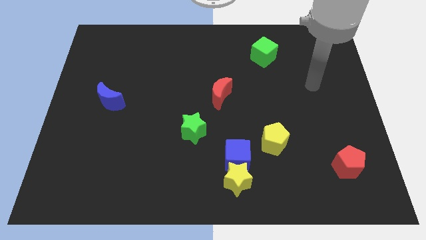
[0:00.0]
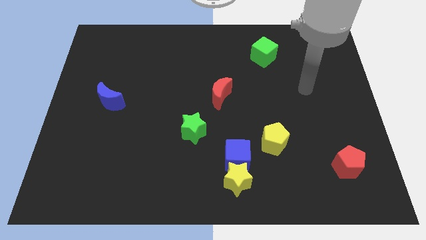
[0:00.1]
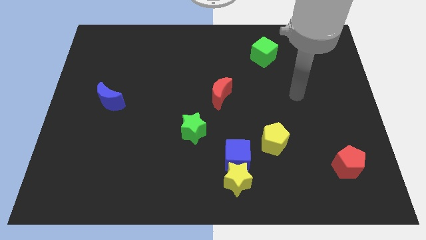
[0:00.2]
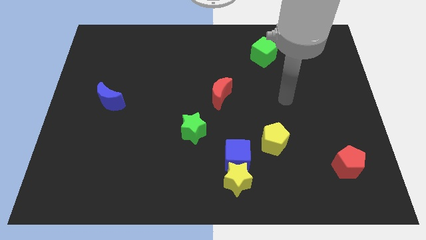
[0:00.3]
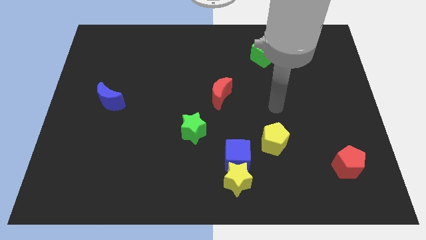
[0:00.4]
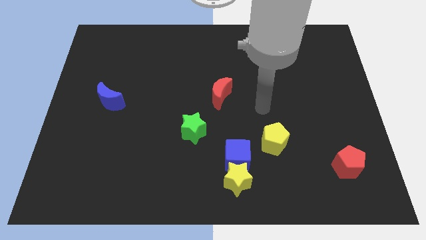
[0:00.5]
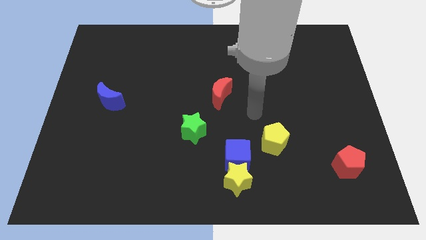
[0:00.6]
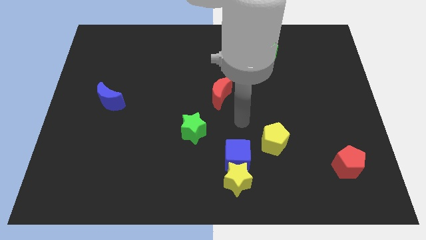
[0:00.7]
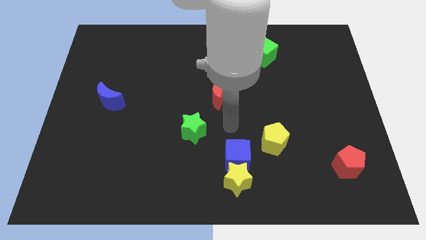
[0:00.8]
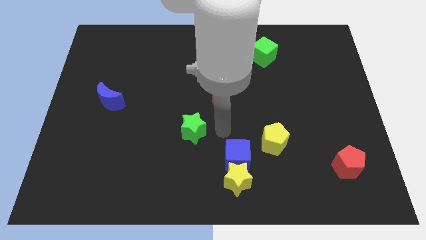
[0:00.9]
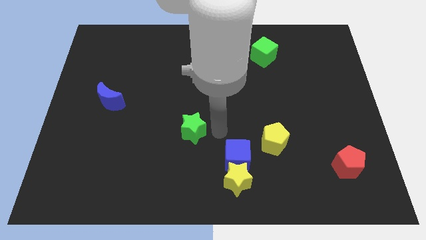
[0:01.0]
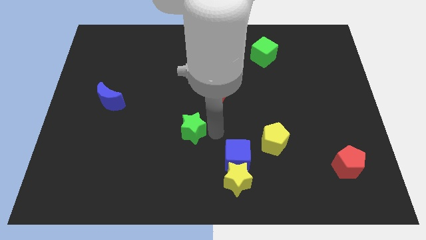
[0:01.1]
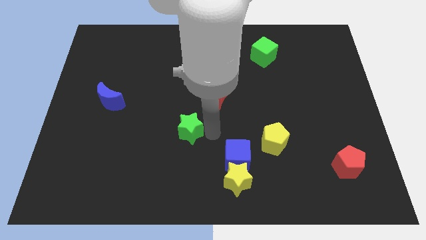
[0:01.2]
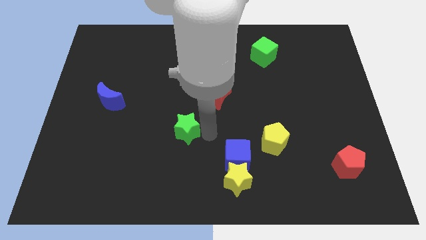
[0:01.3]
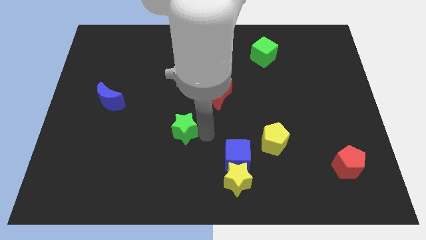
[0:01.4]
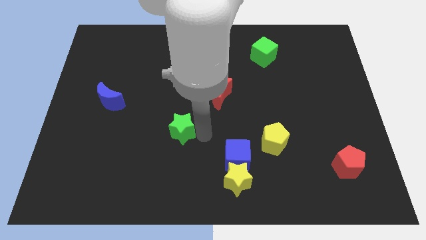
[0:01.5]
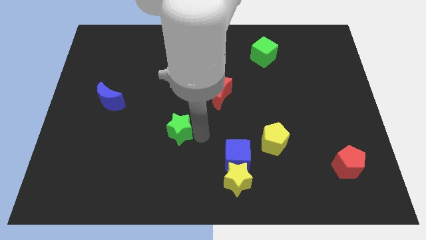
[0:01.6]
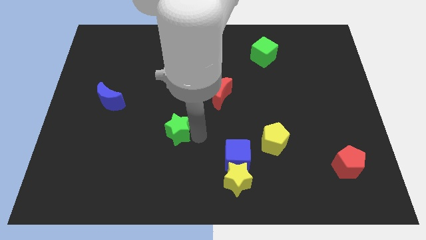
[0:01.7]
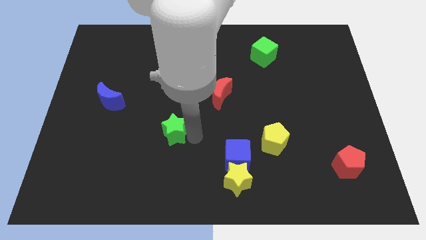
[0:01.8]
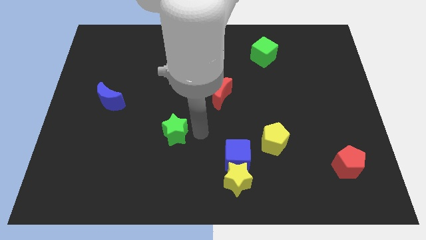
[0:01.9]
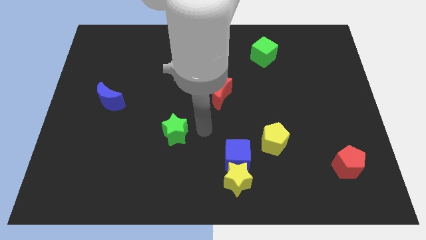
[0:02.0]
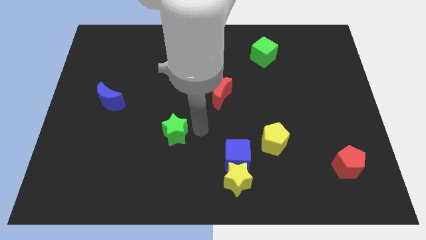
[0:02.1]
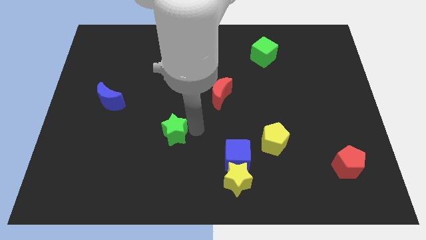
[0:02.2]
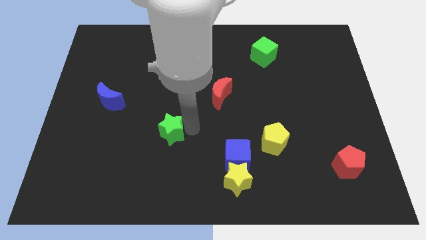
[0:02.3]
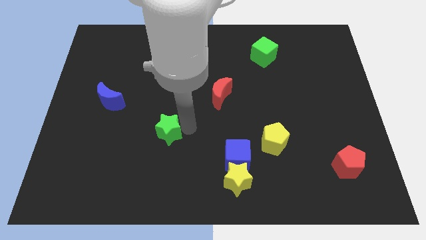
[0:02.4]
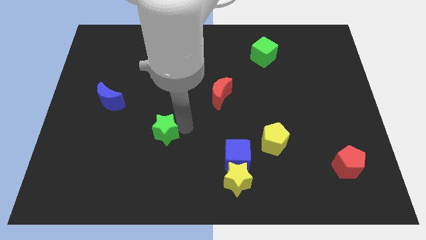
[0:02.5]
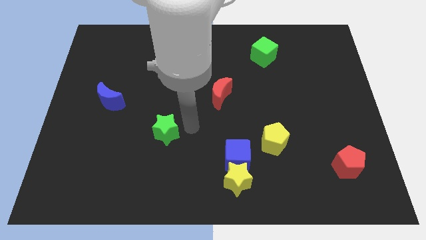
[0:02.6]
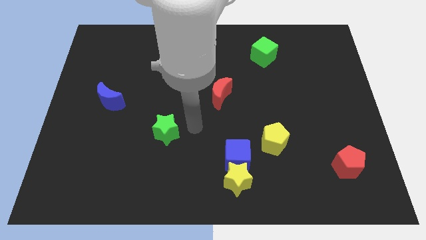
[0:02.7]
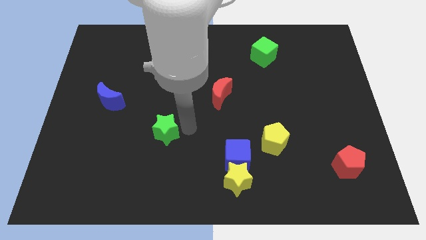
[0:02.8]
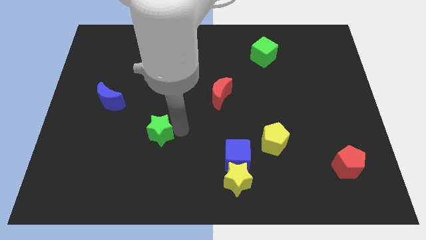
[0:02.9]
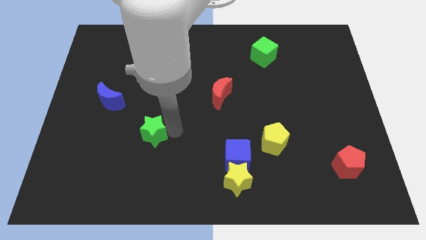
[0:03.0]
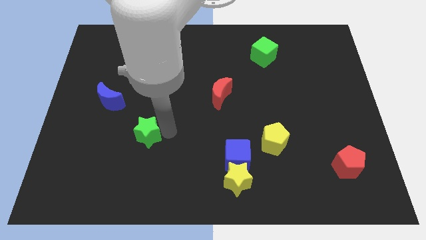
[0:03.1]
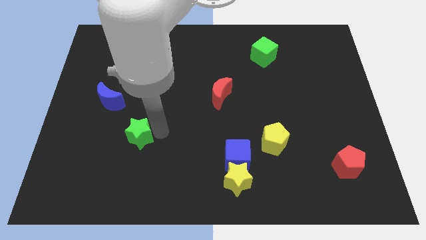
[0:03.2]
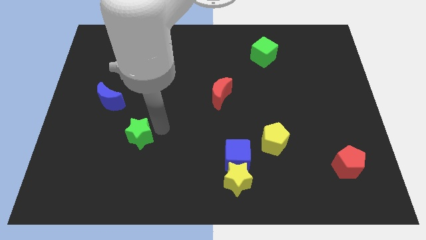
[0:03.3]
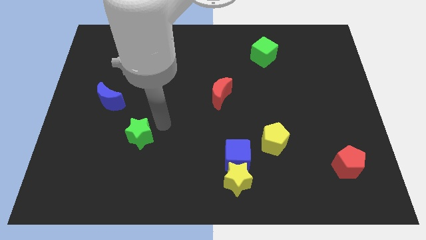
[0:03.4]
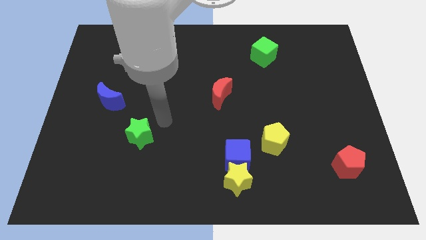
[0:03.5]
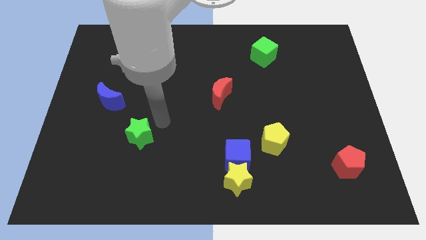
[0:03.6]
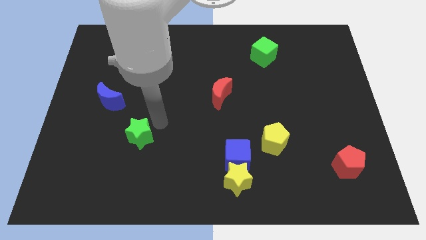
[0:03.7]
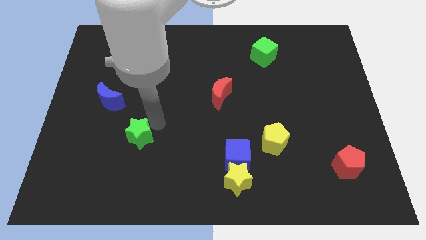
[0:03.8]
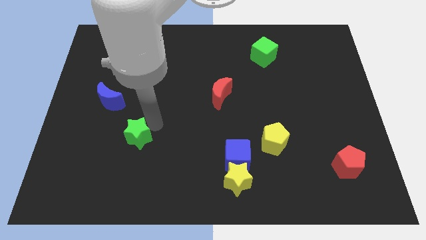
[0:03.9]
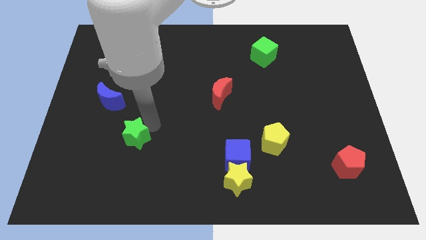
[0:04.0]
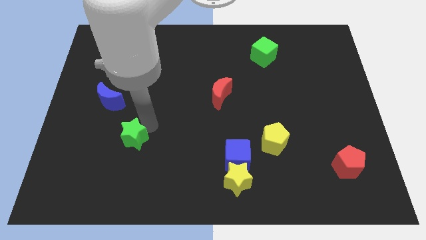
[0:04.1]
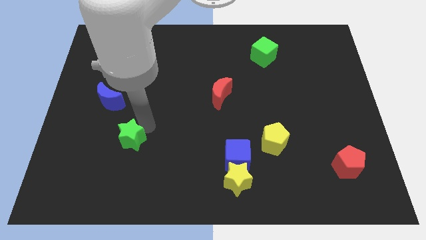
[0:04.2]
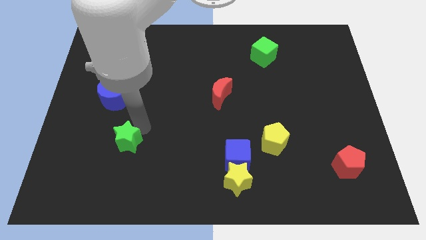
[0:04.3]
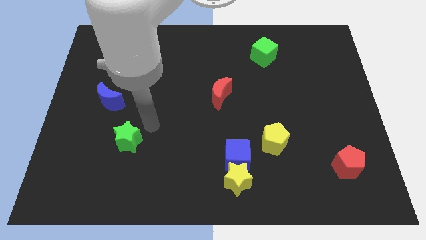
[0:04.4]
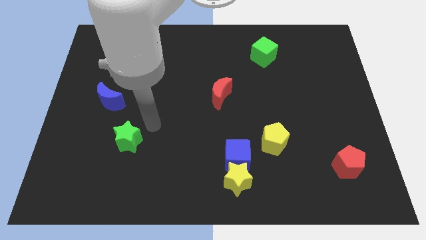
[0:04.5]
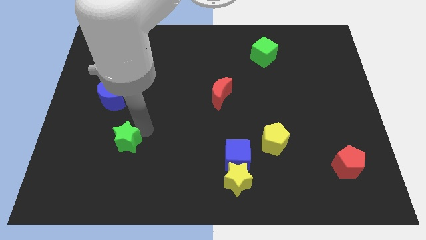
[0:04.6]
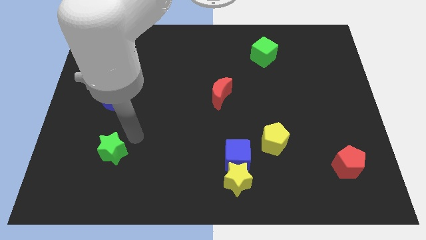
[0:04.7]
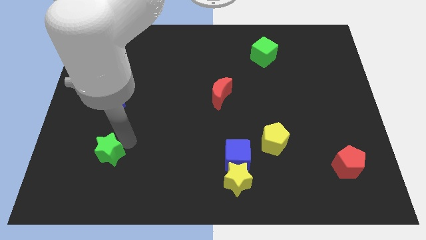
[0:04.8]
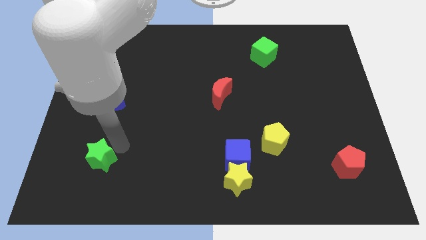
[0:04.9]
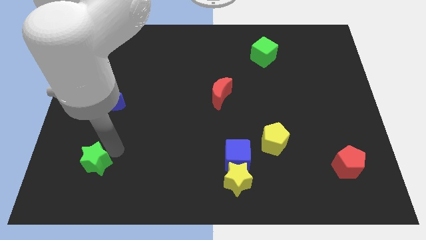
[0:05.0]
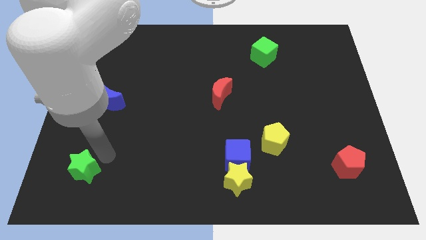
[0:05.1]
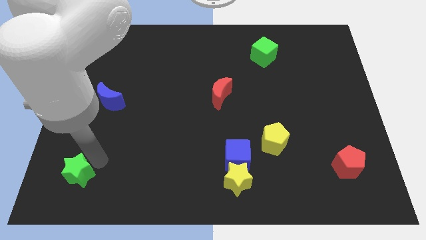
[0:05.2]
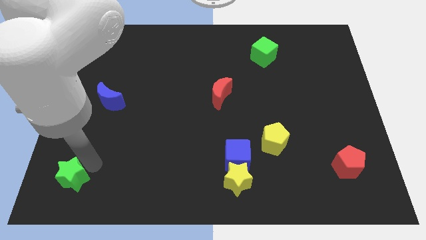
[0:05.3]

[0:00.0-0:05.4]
put the green star to the bottom left of the board

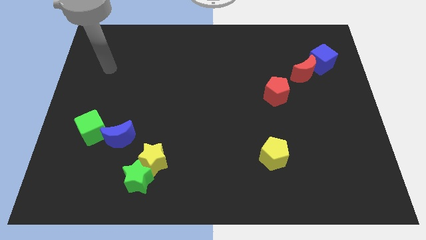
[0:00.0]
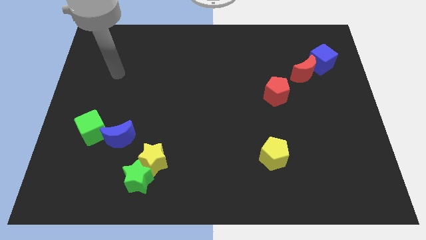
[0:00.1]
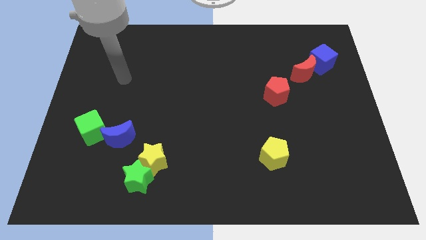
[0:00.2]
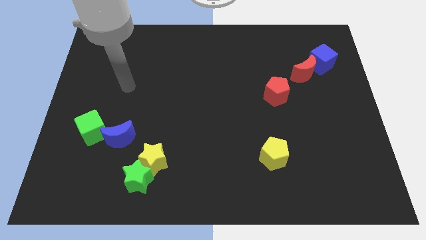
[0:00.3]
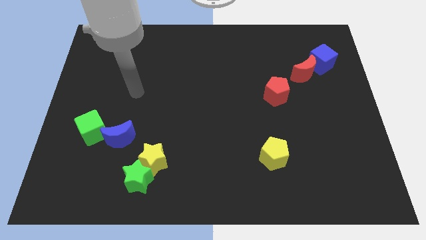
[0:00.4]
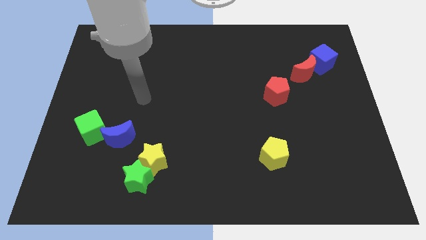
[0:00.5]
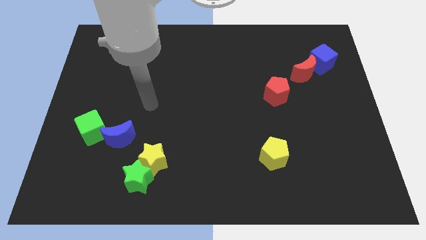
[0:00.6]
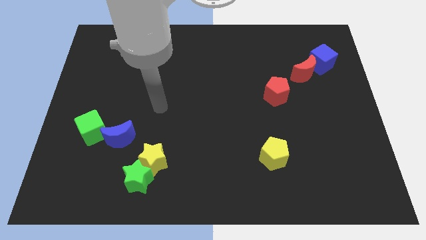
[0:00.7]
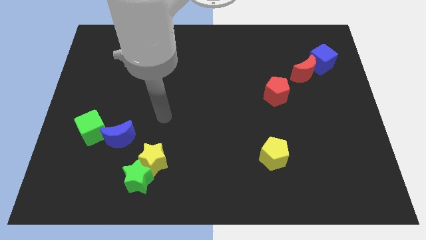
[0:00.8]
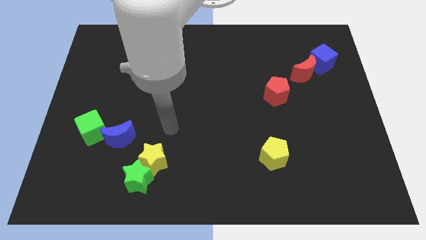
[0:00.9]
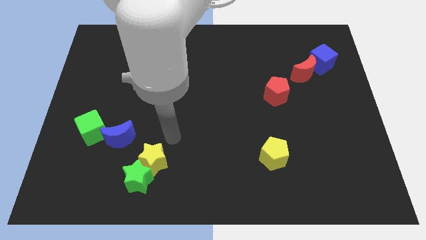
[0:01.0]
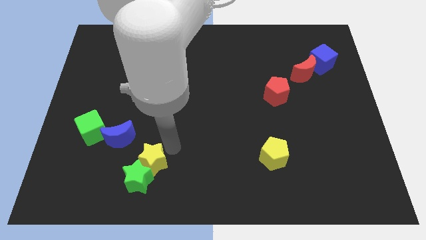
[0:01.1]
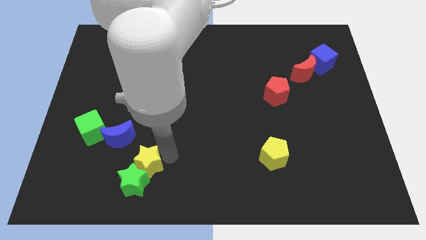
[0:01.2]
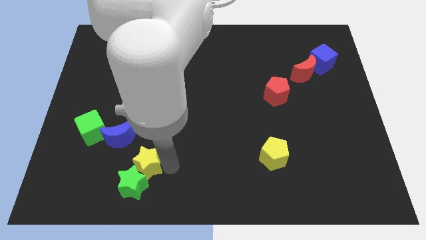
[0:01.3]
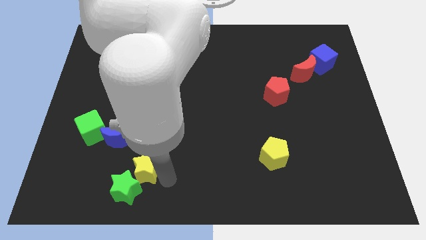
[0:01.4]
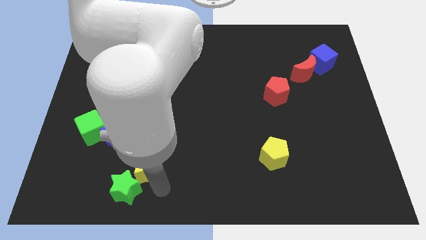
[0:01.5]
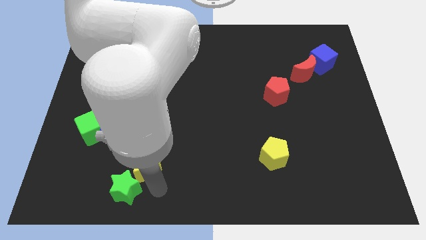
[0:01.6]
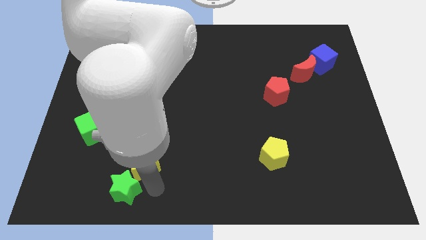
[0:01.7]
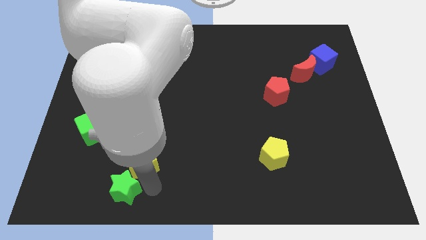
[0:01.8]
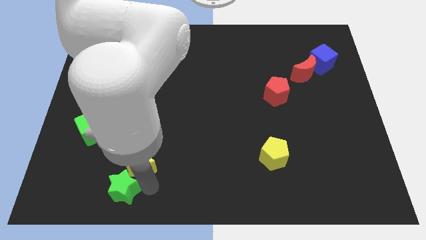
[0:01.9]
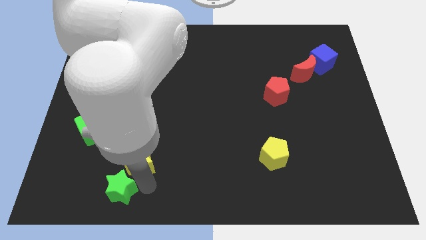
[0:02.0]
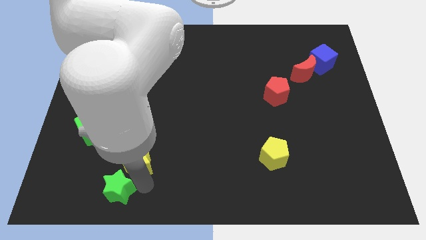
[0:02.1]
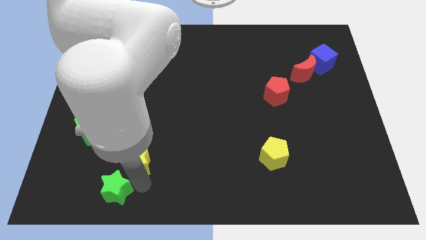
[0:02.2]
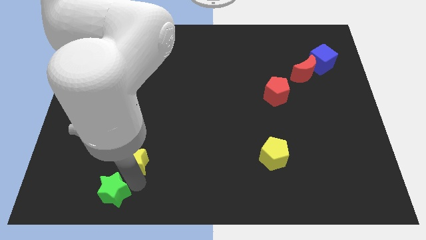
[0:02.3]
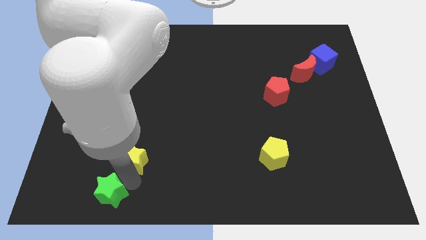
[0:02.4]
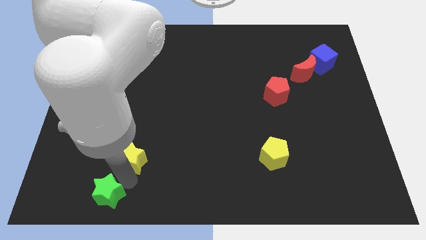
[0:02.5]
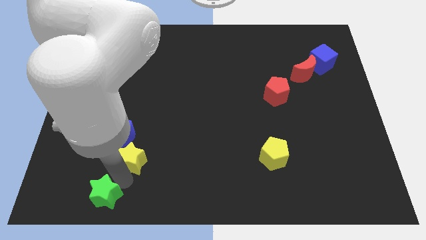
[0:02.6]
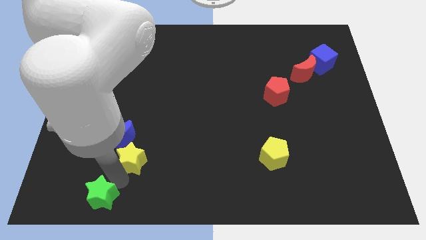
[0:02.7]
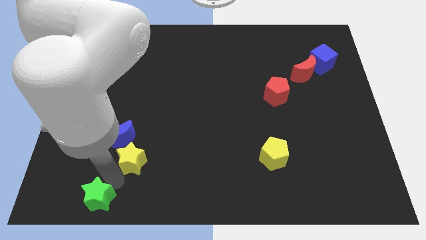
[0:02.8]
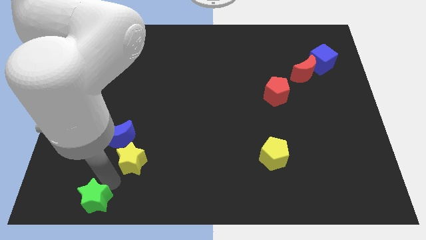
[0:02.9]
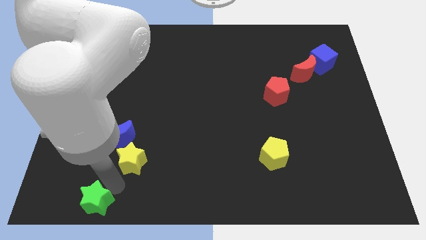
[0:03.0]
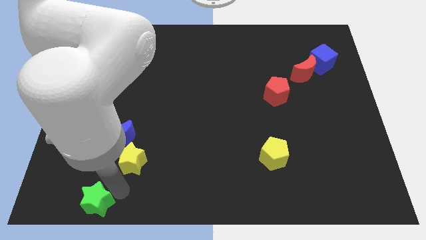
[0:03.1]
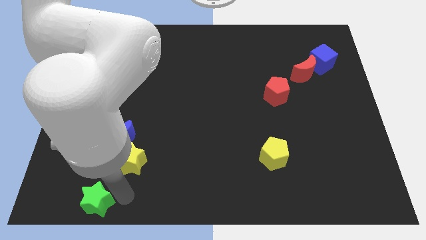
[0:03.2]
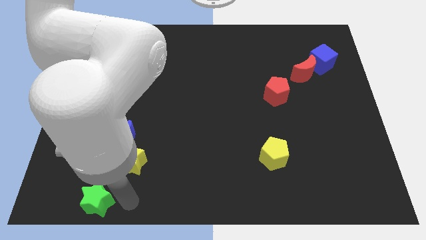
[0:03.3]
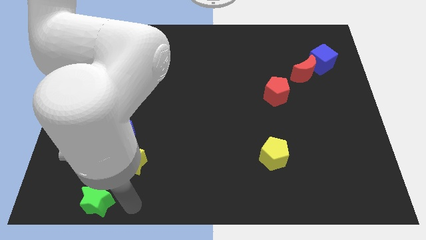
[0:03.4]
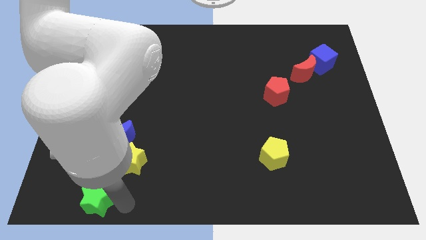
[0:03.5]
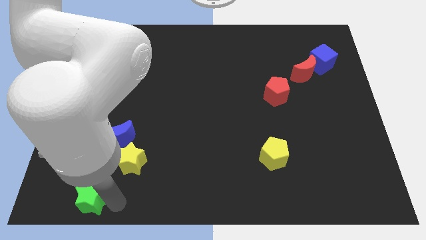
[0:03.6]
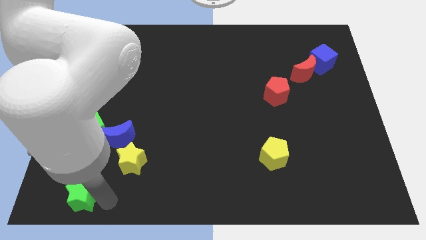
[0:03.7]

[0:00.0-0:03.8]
push the green star to the lower left corner
